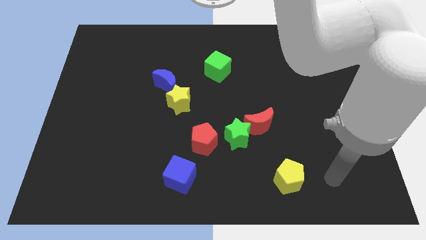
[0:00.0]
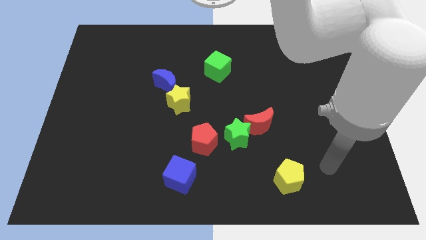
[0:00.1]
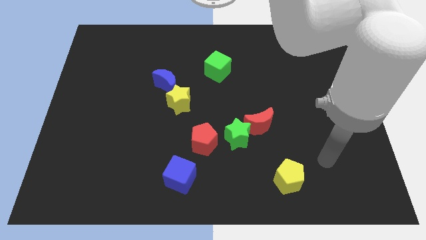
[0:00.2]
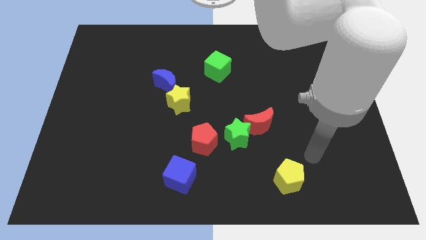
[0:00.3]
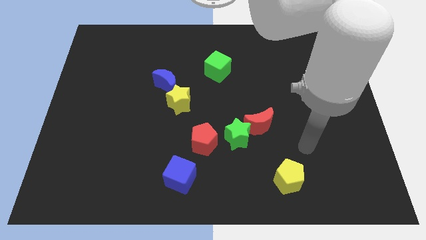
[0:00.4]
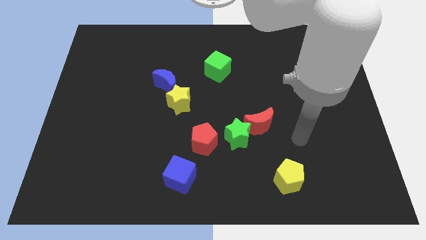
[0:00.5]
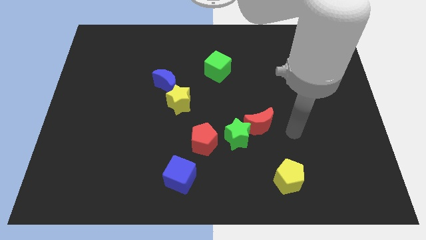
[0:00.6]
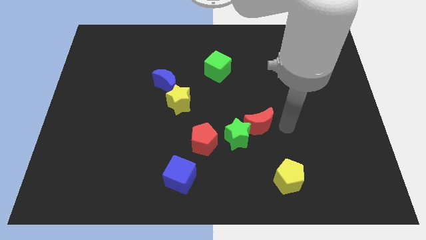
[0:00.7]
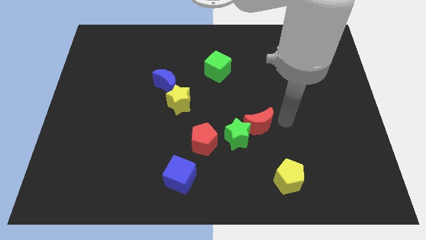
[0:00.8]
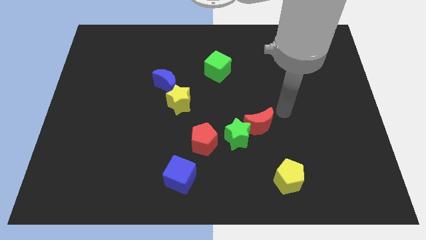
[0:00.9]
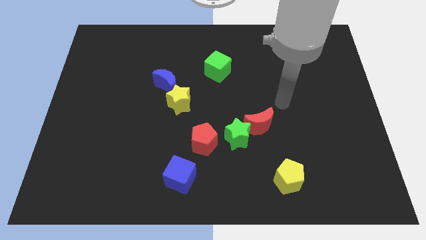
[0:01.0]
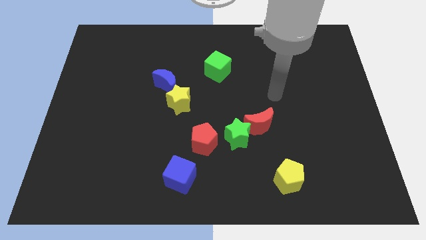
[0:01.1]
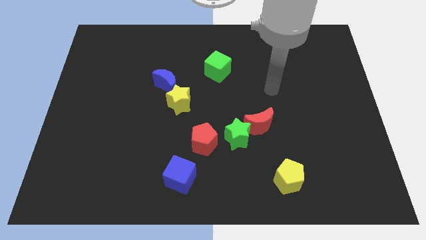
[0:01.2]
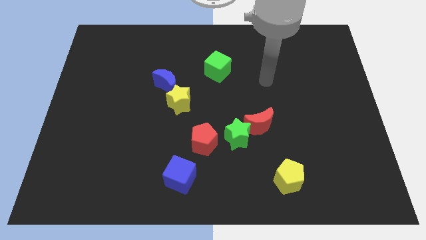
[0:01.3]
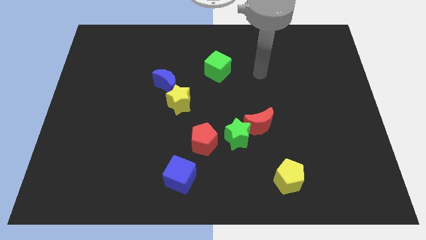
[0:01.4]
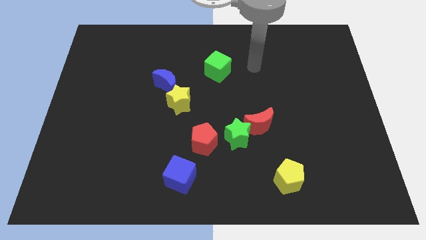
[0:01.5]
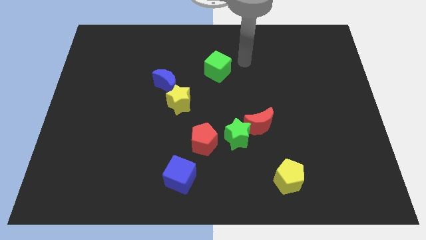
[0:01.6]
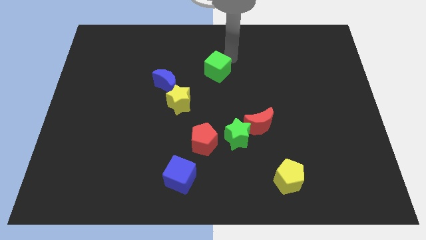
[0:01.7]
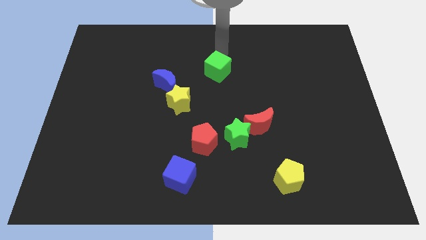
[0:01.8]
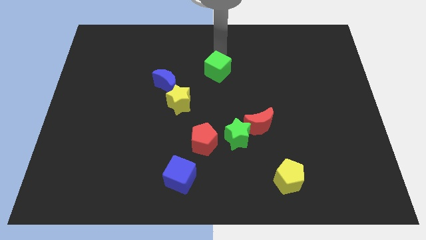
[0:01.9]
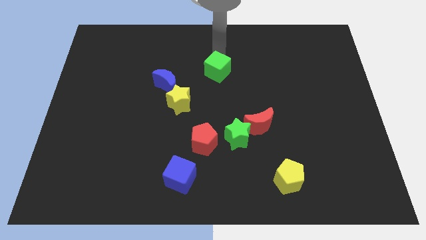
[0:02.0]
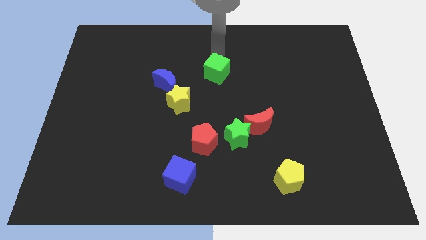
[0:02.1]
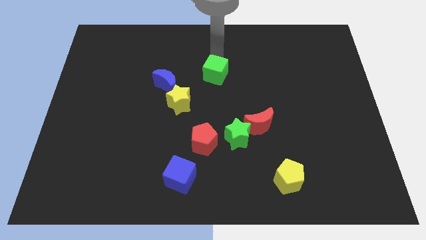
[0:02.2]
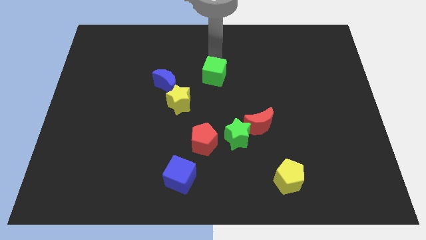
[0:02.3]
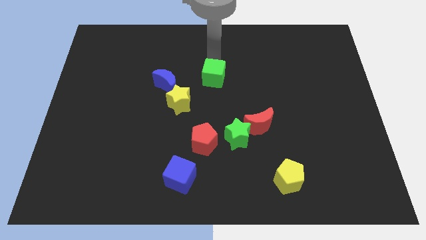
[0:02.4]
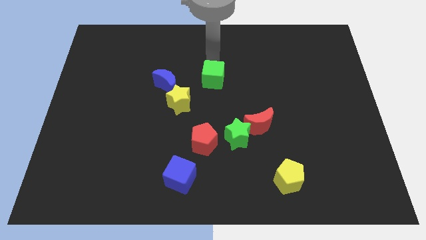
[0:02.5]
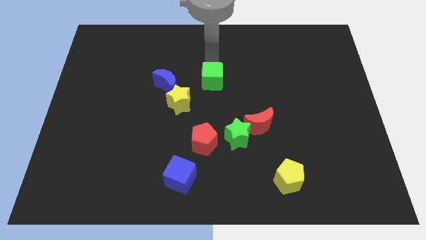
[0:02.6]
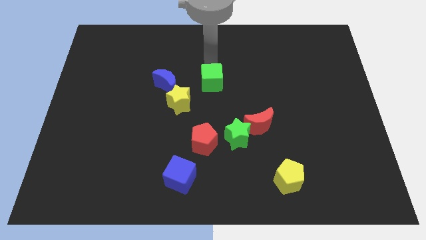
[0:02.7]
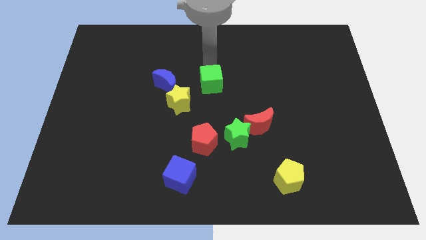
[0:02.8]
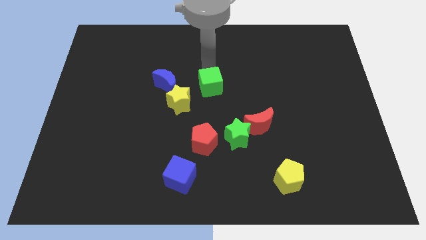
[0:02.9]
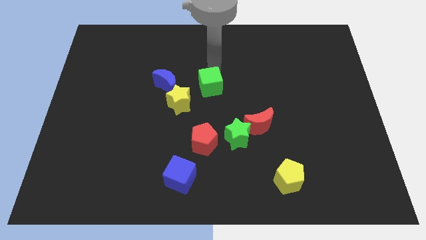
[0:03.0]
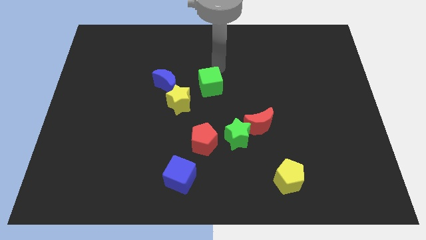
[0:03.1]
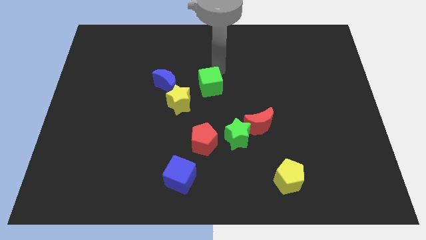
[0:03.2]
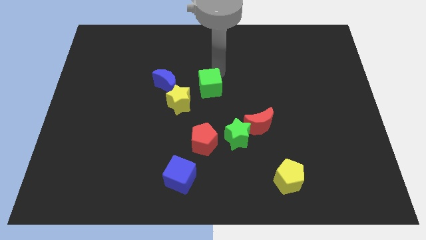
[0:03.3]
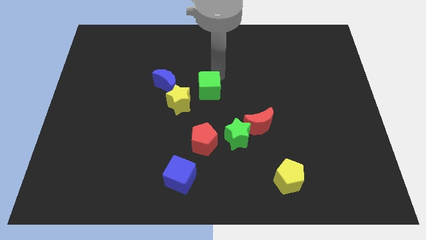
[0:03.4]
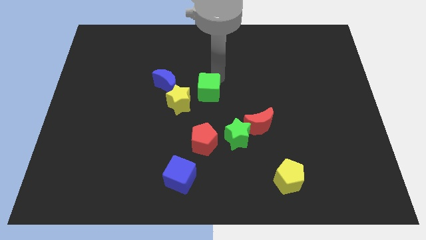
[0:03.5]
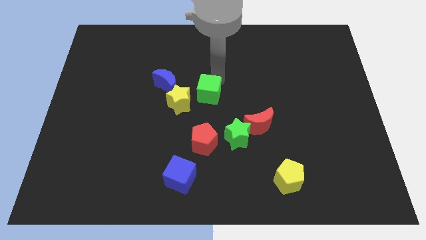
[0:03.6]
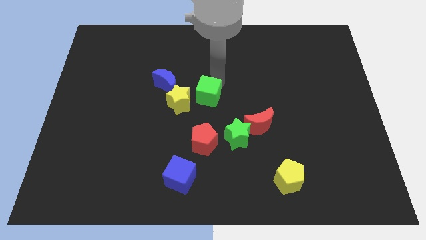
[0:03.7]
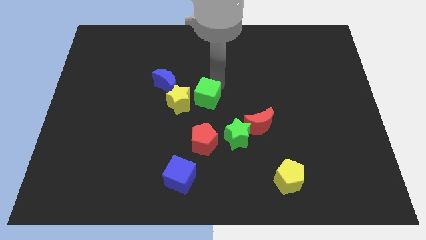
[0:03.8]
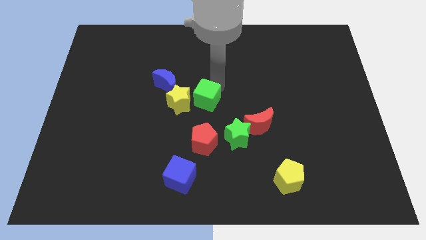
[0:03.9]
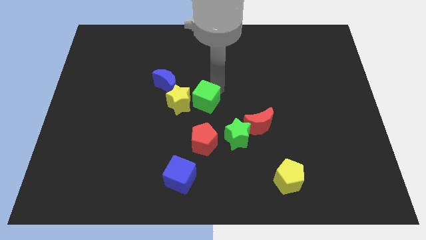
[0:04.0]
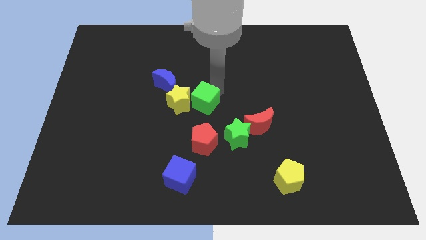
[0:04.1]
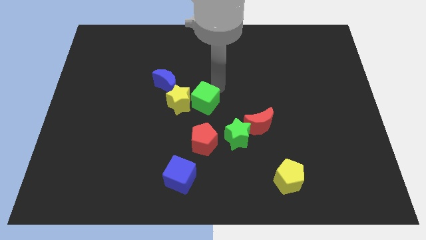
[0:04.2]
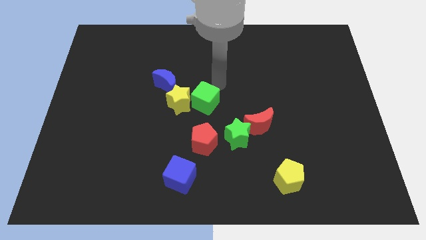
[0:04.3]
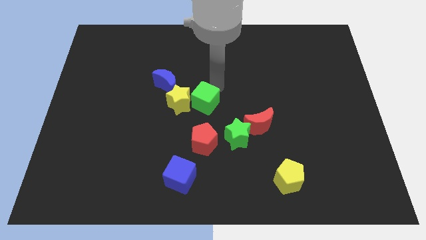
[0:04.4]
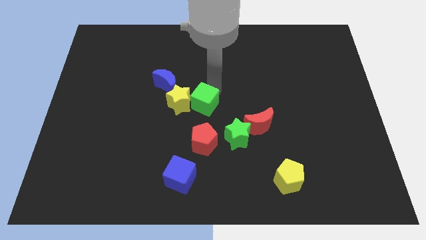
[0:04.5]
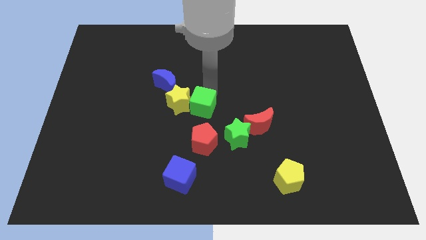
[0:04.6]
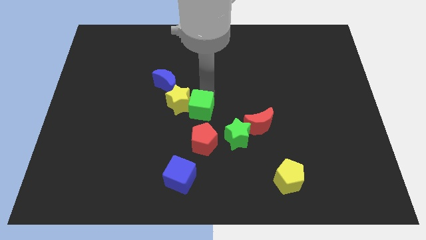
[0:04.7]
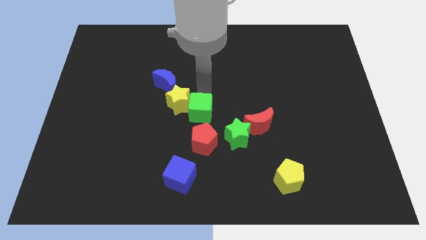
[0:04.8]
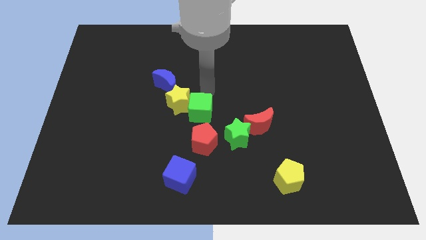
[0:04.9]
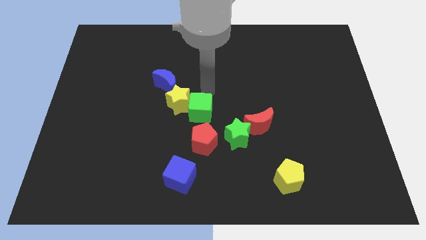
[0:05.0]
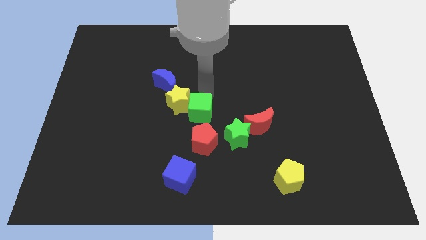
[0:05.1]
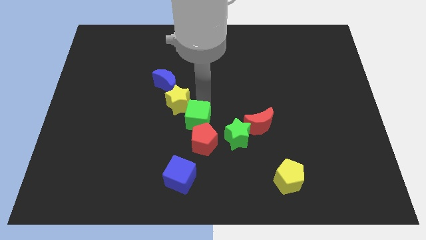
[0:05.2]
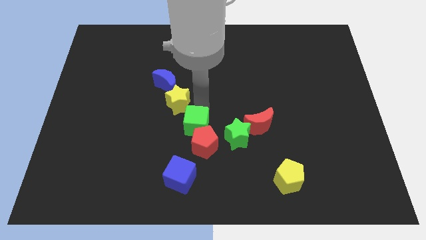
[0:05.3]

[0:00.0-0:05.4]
put the green cube just left of the green star

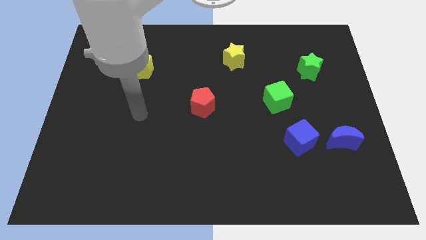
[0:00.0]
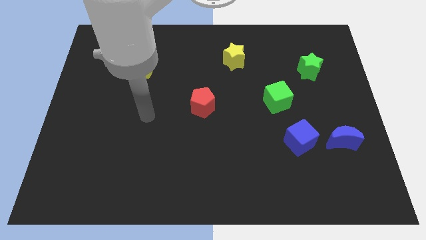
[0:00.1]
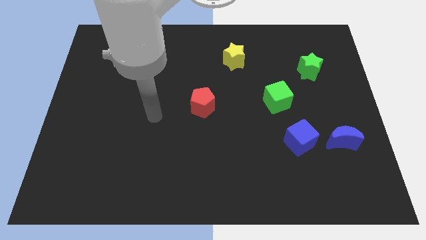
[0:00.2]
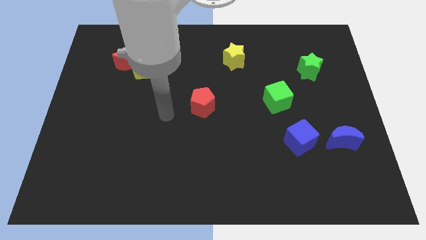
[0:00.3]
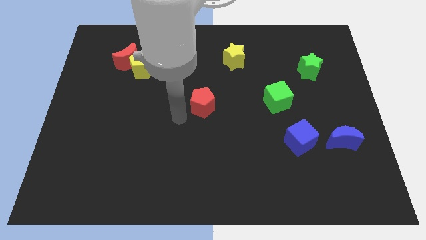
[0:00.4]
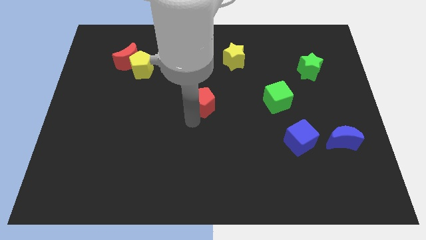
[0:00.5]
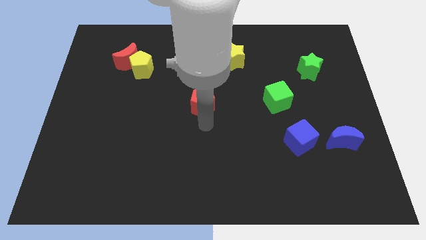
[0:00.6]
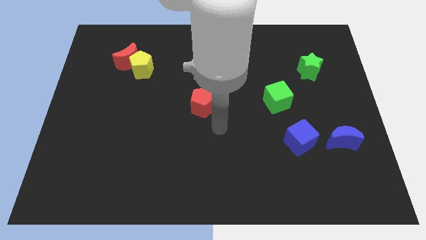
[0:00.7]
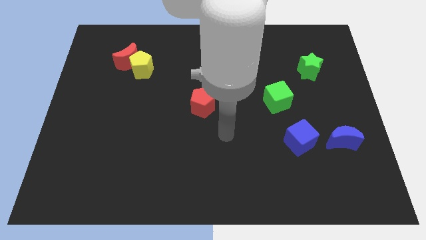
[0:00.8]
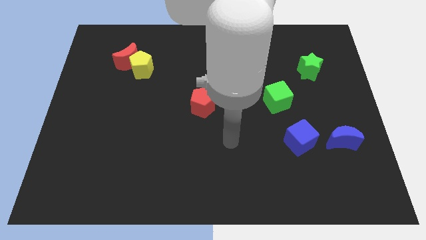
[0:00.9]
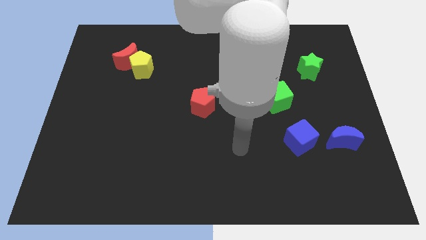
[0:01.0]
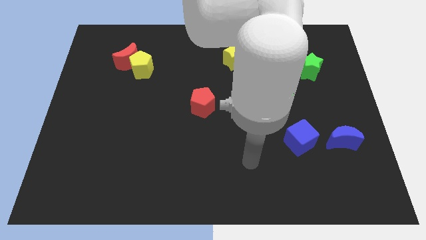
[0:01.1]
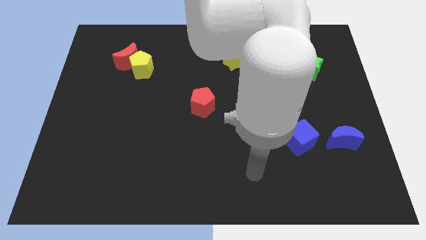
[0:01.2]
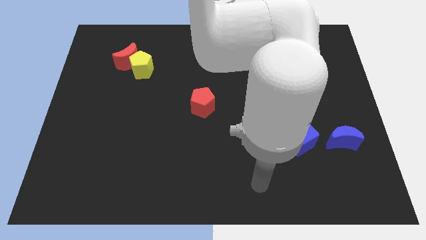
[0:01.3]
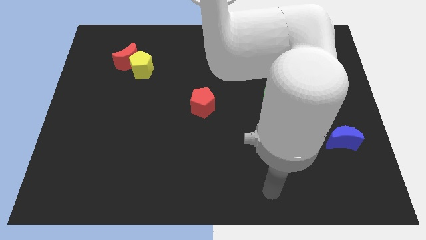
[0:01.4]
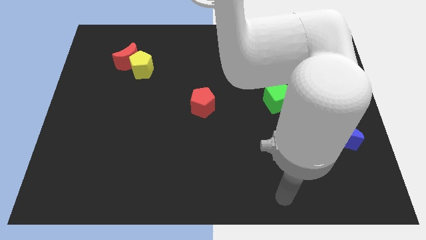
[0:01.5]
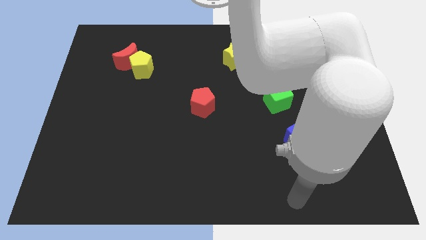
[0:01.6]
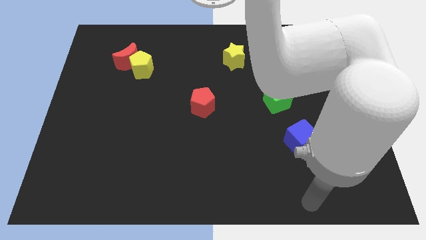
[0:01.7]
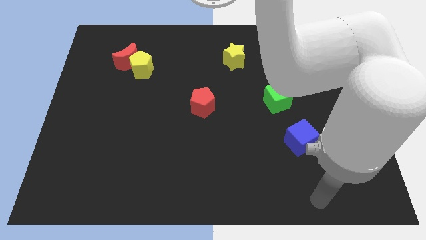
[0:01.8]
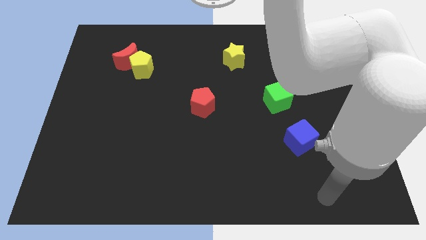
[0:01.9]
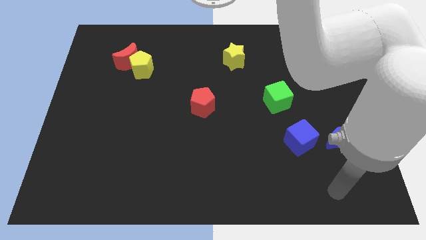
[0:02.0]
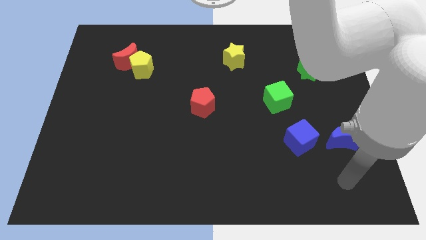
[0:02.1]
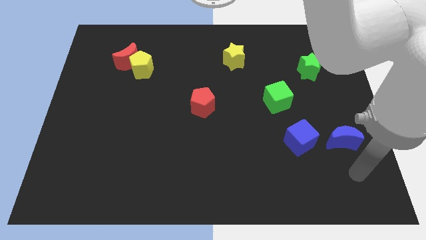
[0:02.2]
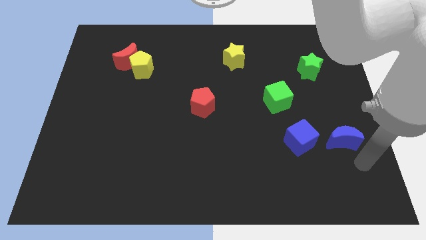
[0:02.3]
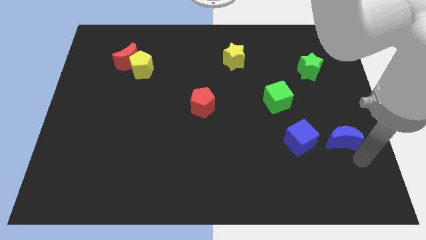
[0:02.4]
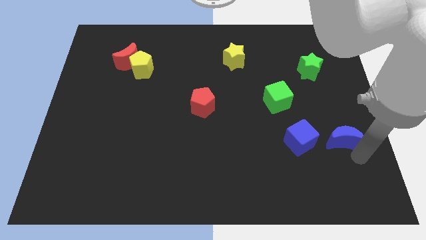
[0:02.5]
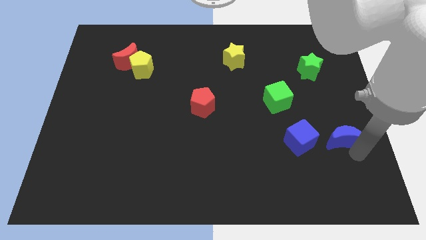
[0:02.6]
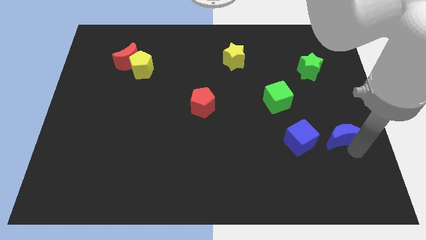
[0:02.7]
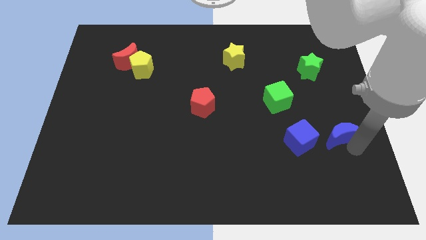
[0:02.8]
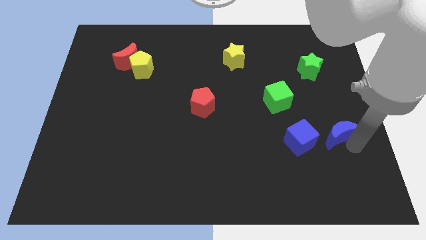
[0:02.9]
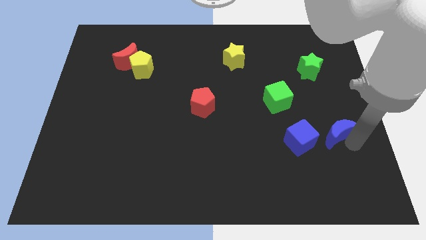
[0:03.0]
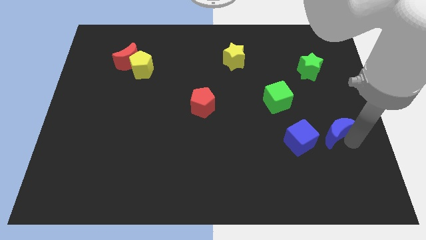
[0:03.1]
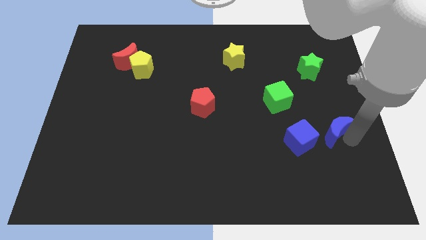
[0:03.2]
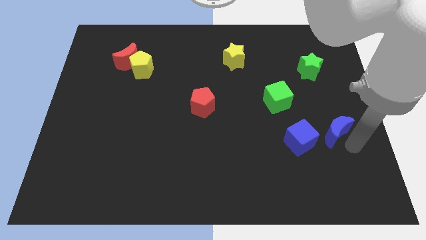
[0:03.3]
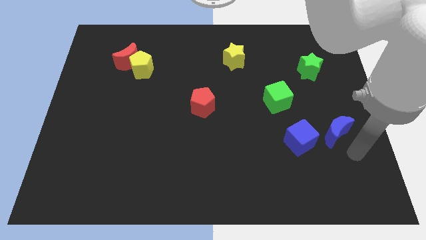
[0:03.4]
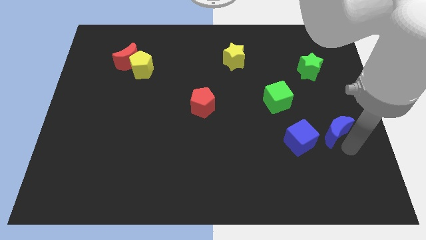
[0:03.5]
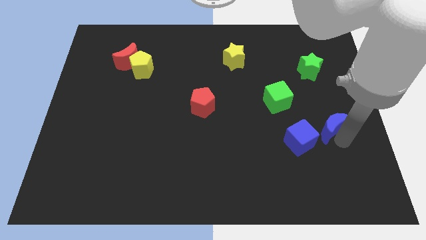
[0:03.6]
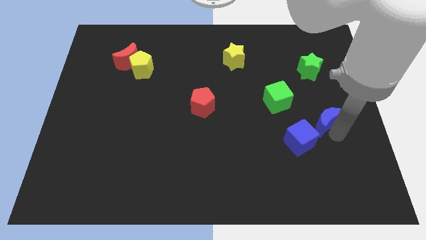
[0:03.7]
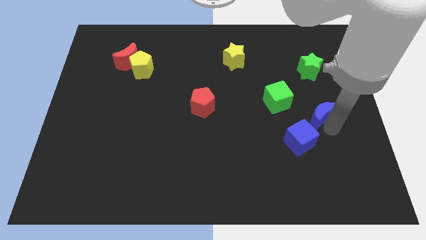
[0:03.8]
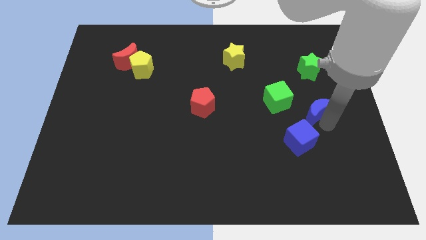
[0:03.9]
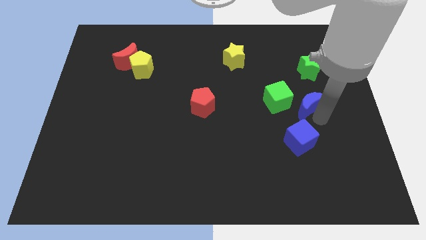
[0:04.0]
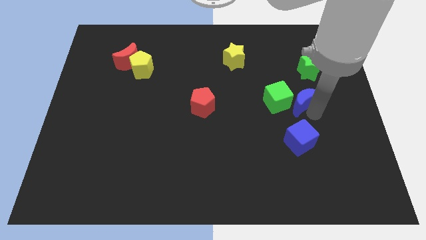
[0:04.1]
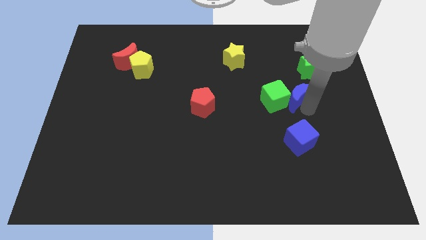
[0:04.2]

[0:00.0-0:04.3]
slide the blue moon to the bottom left side of the green star
